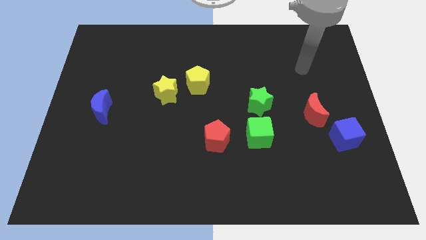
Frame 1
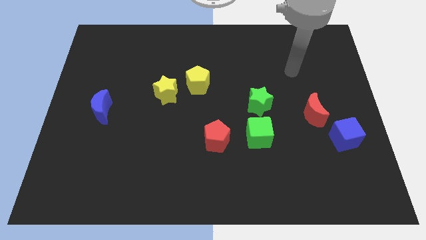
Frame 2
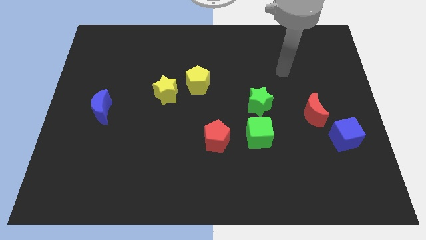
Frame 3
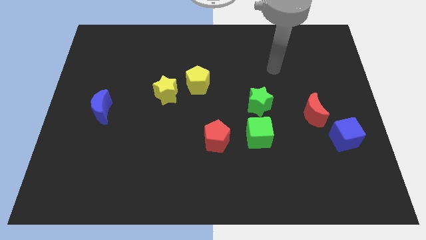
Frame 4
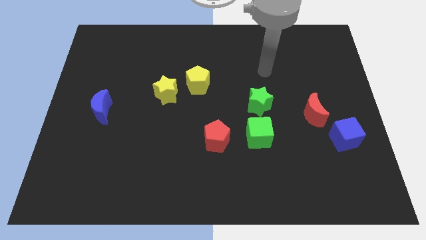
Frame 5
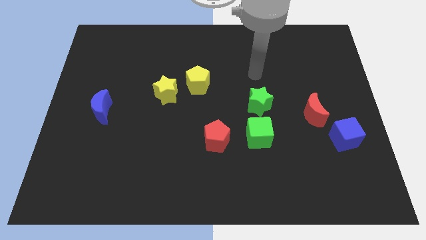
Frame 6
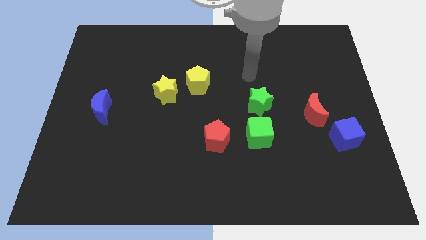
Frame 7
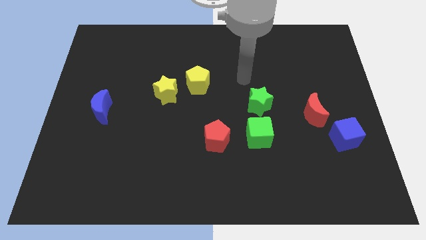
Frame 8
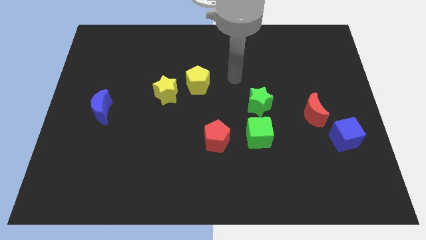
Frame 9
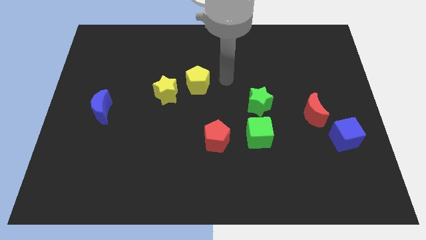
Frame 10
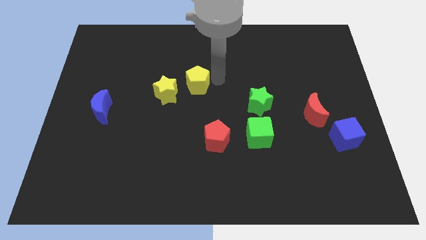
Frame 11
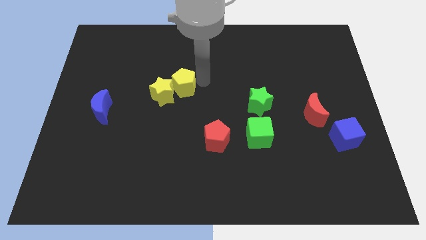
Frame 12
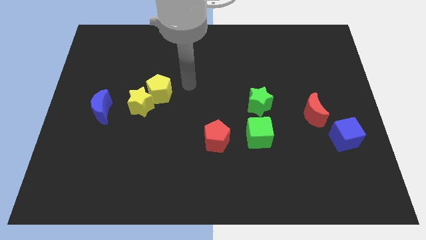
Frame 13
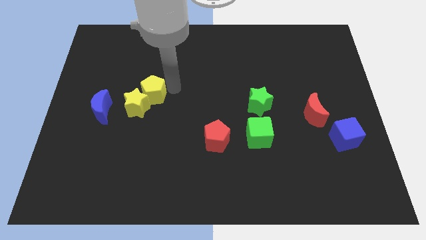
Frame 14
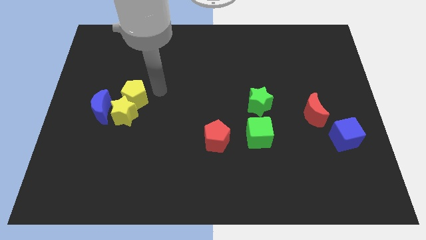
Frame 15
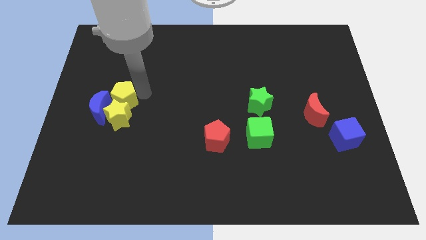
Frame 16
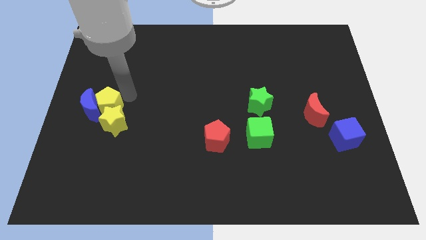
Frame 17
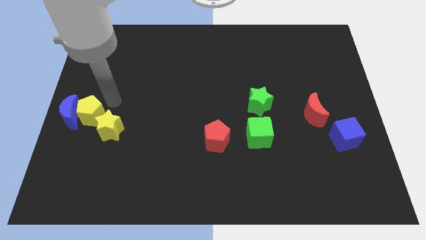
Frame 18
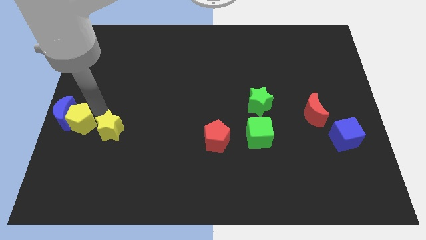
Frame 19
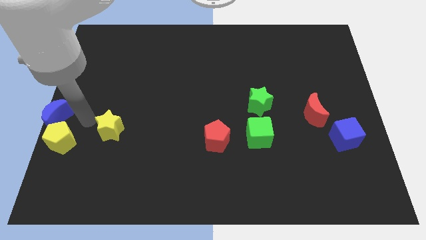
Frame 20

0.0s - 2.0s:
pull the yellow star apart from the yellow pentagon

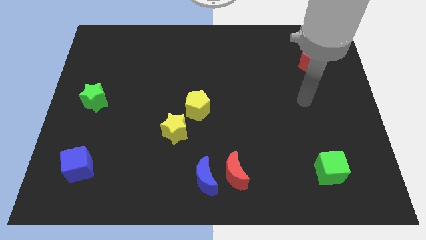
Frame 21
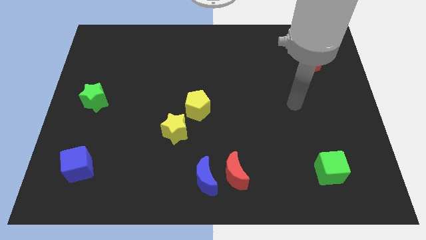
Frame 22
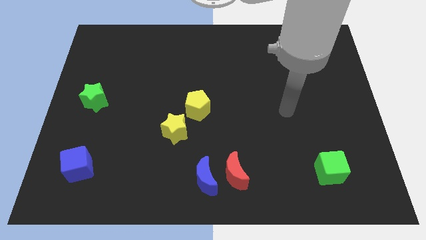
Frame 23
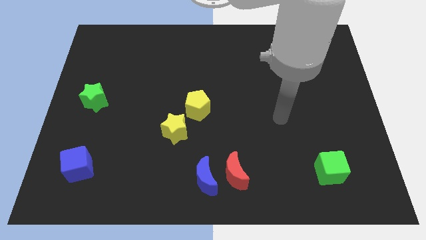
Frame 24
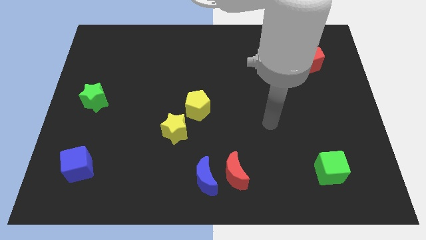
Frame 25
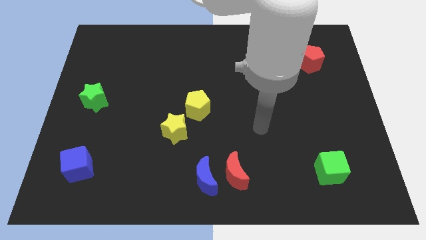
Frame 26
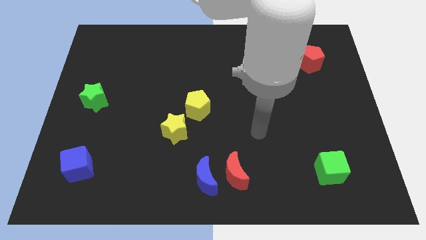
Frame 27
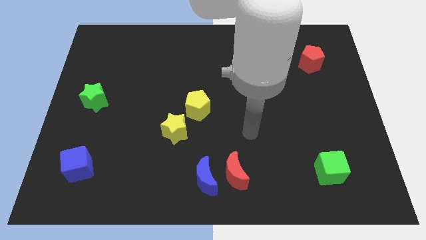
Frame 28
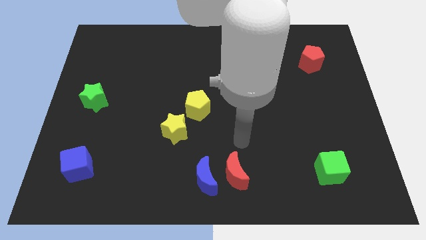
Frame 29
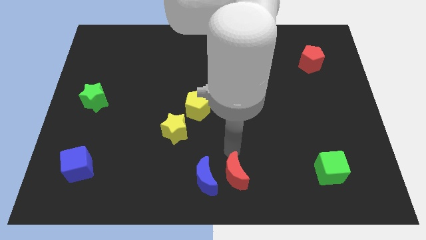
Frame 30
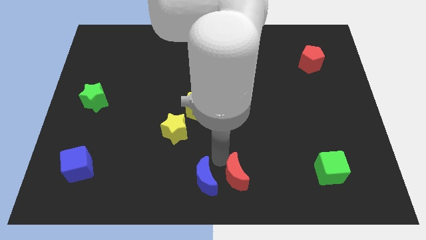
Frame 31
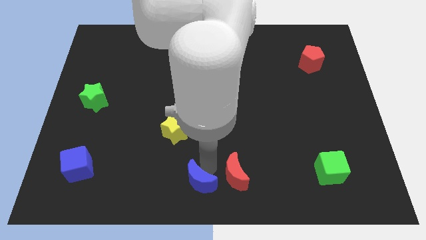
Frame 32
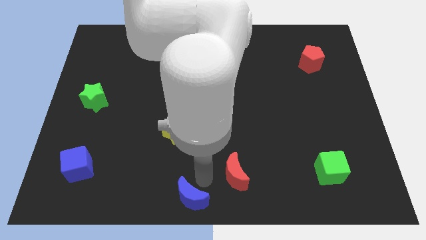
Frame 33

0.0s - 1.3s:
separate the red moon from the blue moon

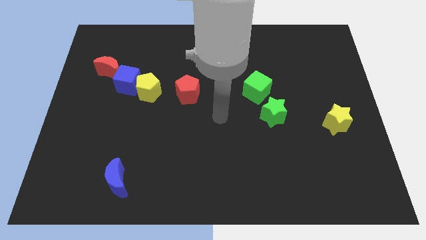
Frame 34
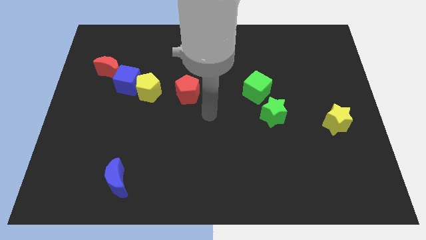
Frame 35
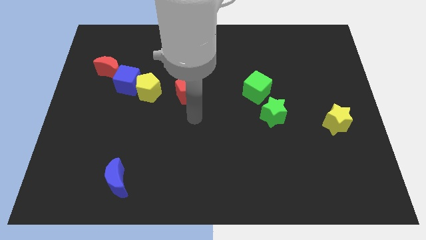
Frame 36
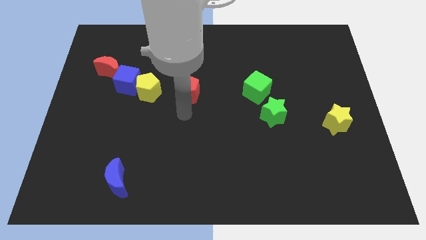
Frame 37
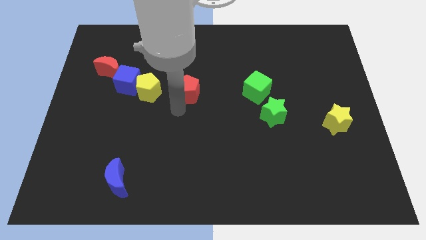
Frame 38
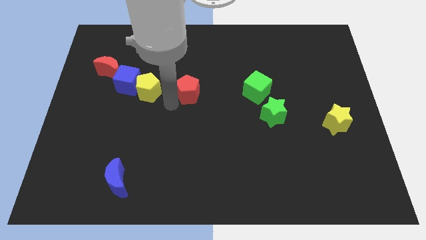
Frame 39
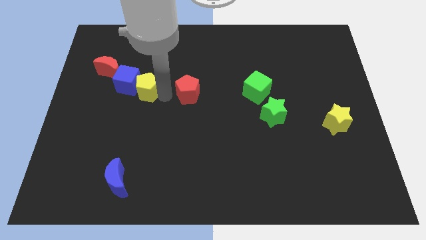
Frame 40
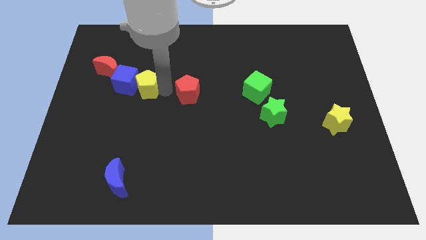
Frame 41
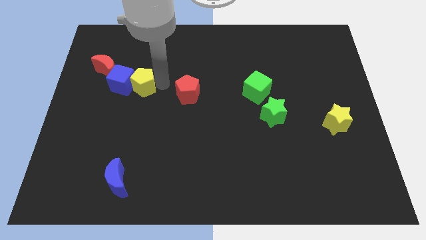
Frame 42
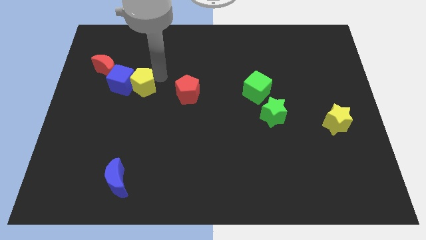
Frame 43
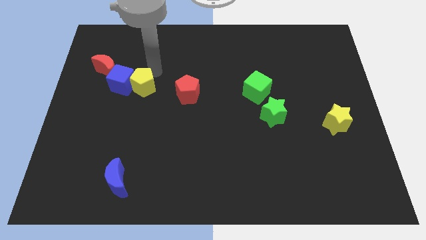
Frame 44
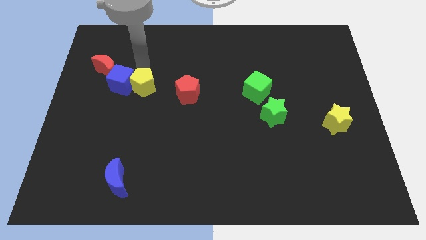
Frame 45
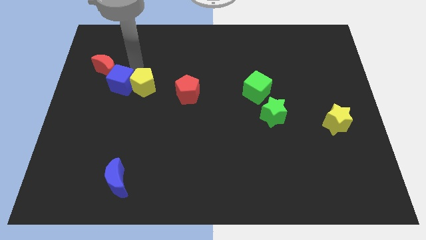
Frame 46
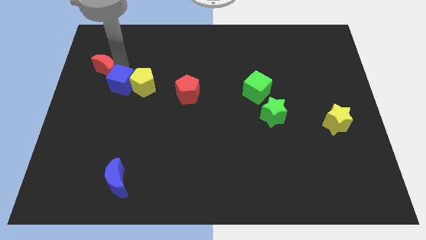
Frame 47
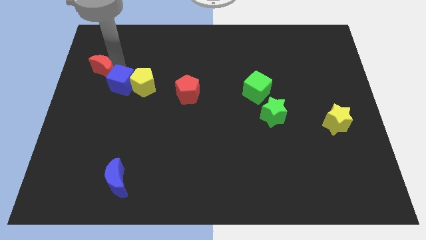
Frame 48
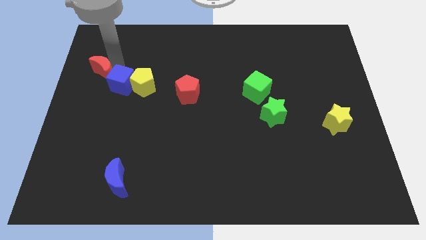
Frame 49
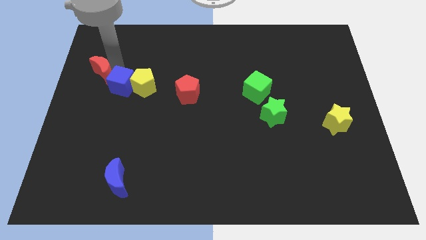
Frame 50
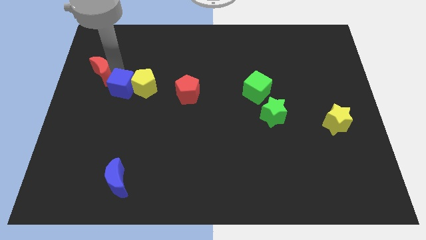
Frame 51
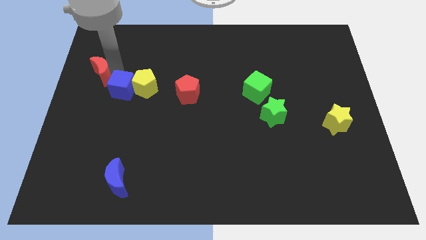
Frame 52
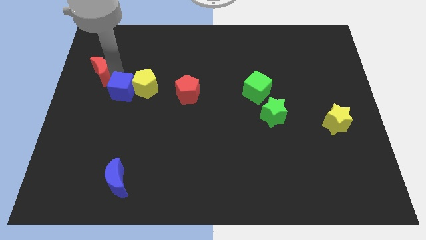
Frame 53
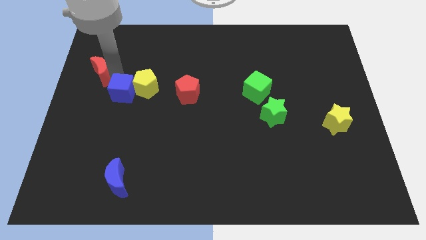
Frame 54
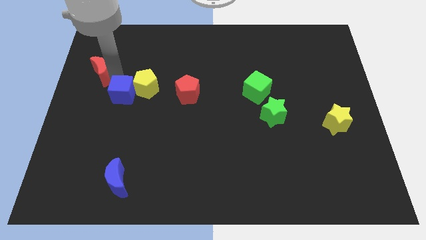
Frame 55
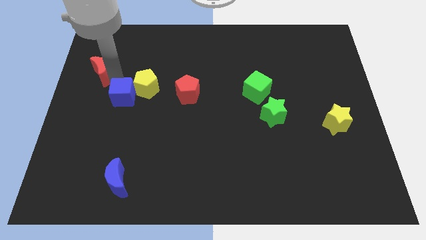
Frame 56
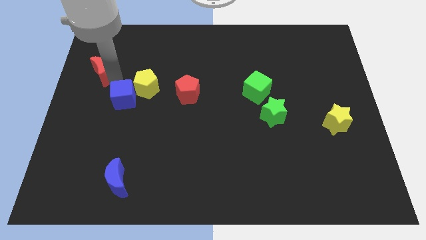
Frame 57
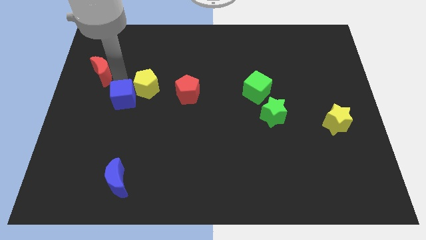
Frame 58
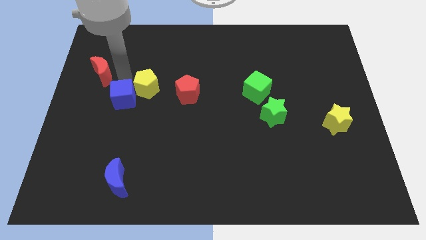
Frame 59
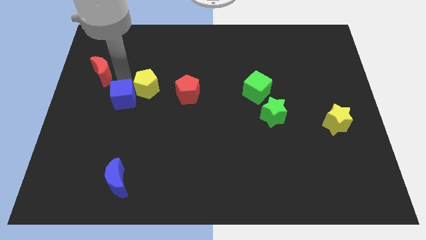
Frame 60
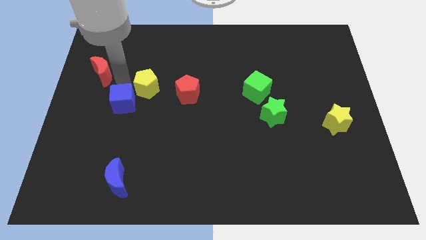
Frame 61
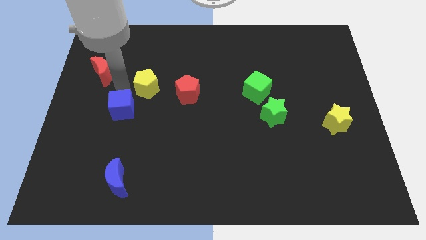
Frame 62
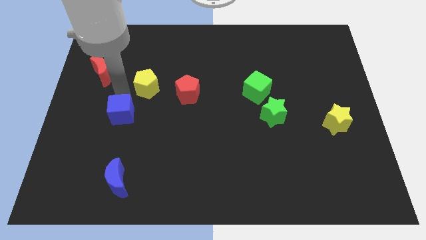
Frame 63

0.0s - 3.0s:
move the blue cube away from the yellow pentagon and red moon

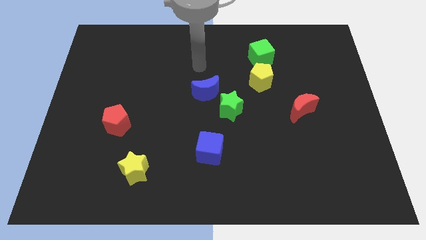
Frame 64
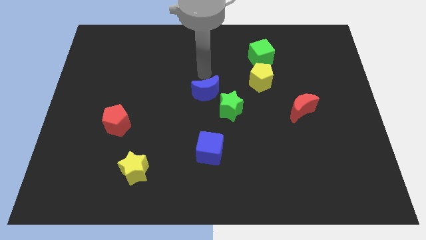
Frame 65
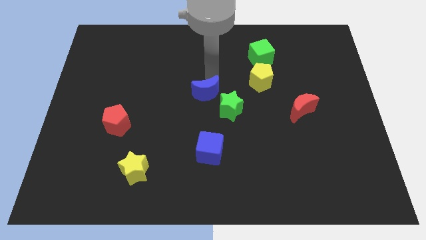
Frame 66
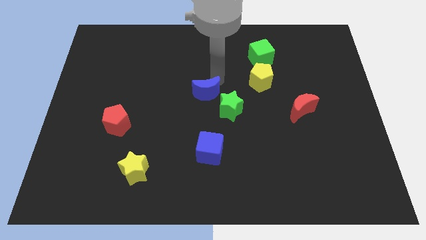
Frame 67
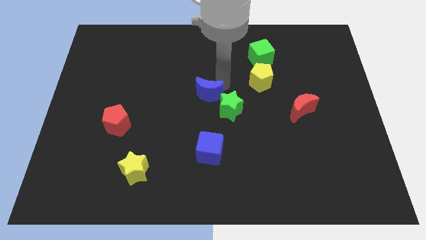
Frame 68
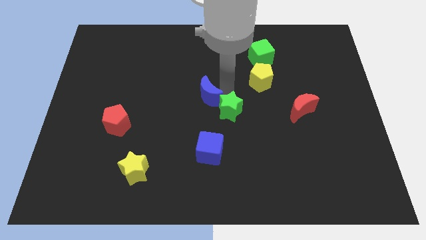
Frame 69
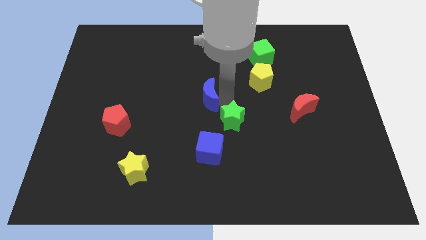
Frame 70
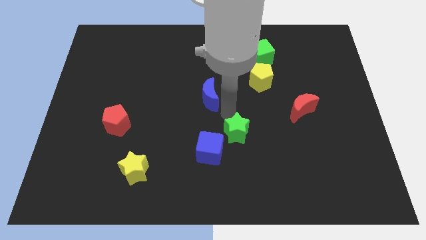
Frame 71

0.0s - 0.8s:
move the blue moon away from the green star

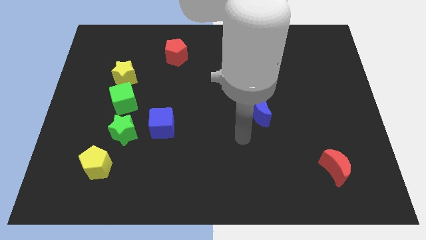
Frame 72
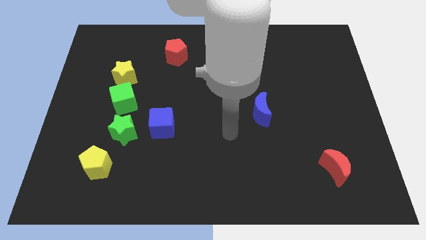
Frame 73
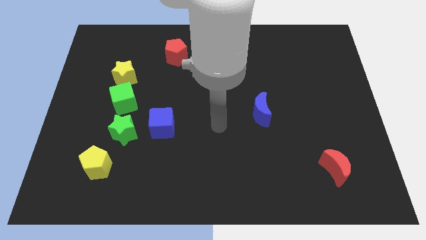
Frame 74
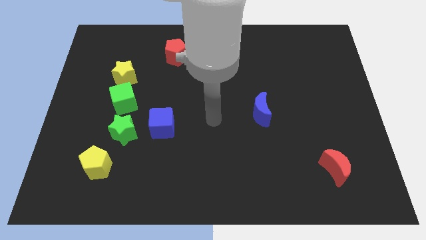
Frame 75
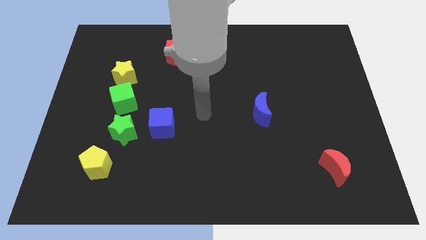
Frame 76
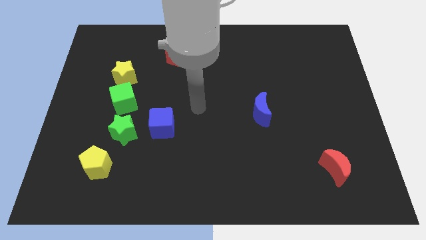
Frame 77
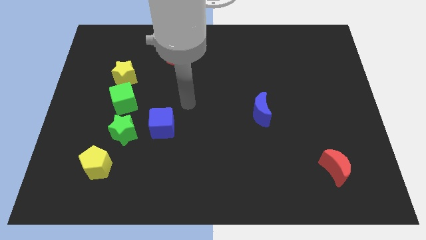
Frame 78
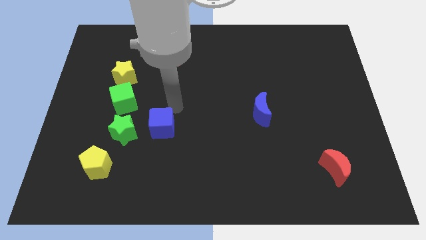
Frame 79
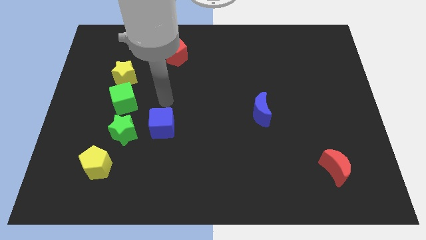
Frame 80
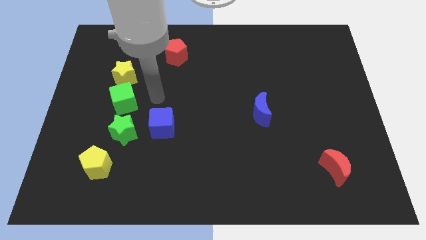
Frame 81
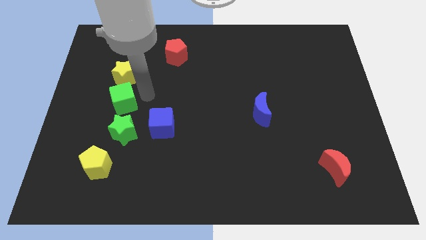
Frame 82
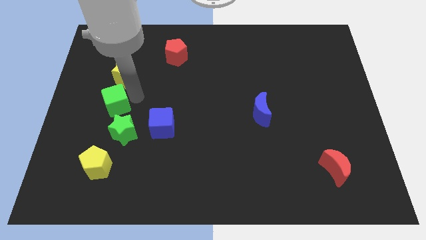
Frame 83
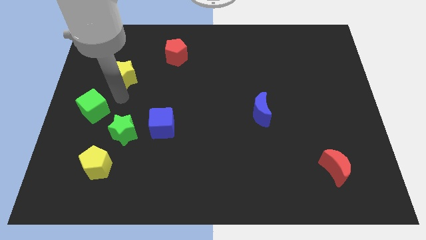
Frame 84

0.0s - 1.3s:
separate the yellow star from the green cube

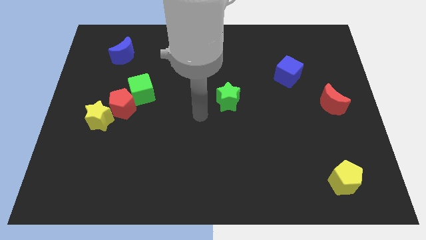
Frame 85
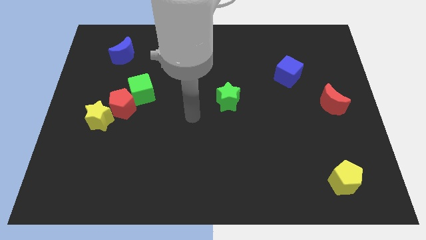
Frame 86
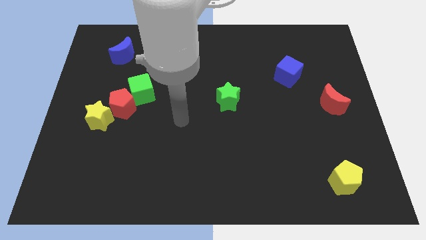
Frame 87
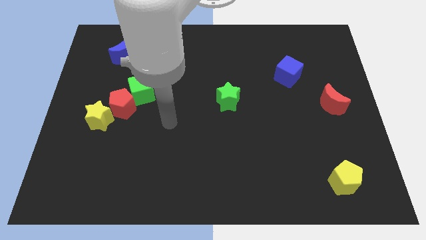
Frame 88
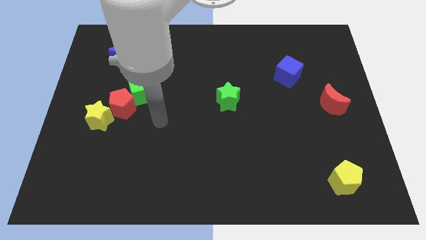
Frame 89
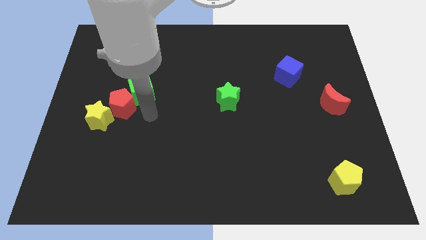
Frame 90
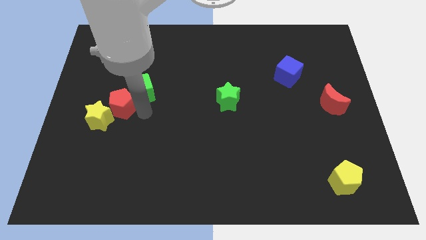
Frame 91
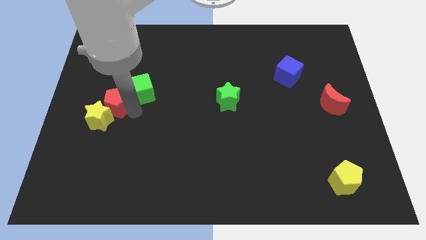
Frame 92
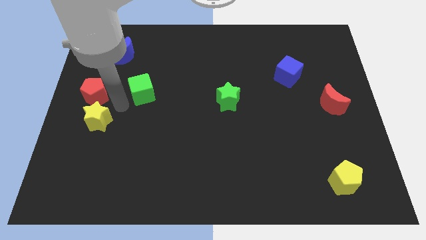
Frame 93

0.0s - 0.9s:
pull the green cube apart from the red pentagon
